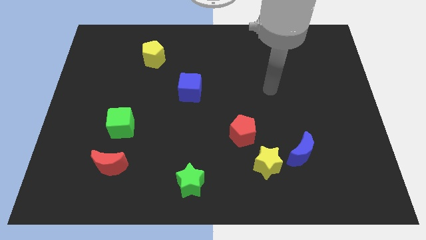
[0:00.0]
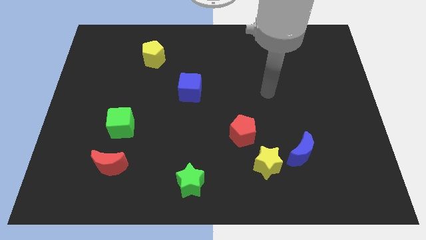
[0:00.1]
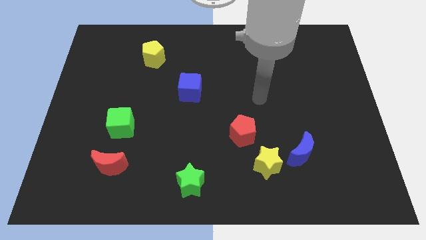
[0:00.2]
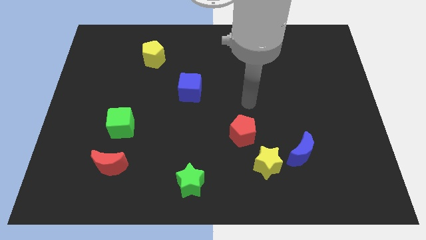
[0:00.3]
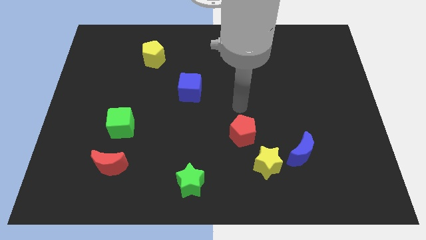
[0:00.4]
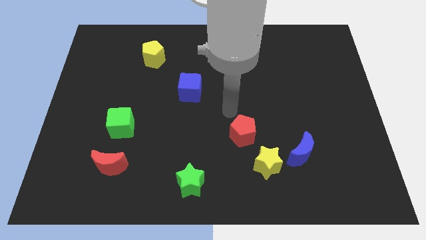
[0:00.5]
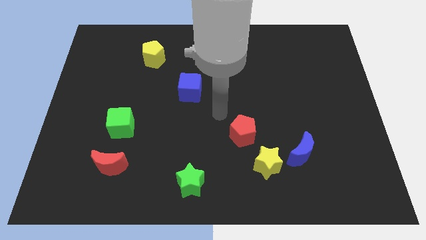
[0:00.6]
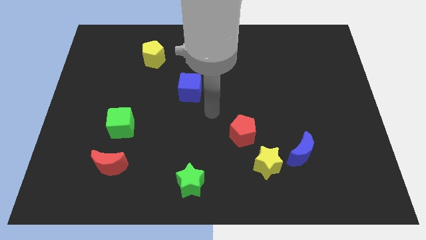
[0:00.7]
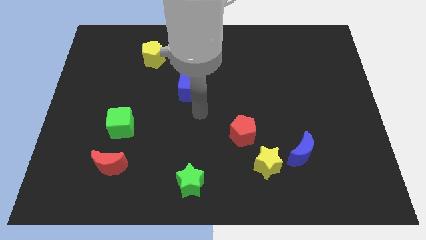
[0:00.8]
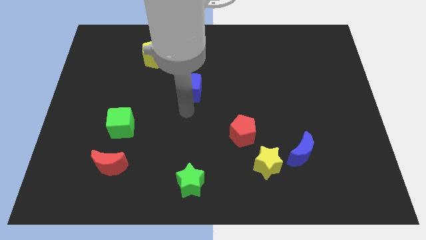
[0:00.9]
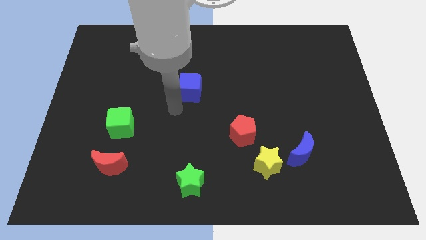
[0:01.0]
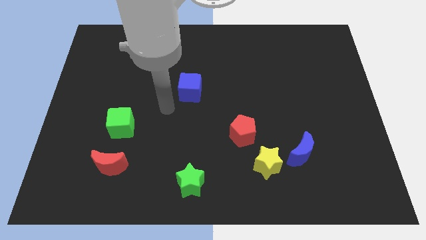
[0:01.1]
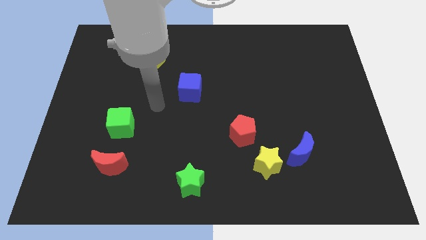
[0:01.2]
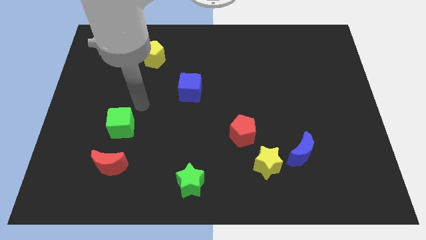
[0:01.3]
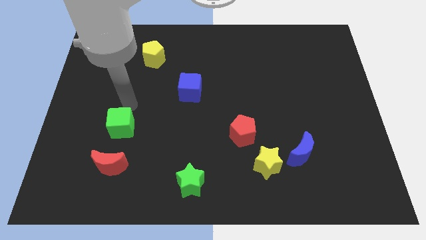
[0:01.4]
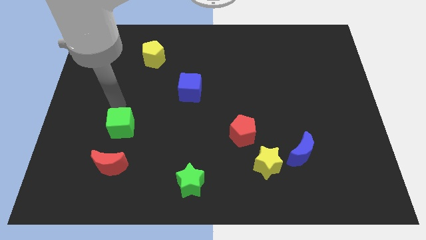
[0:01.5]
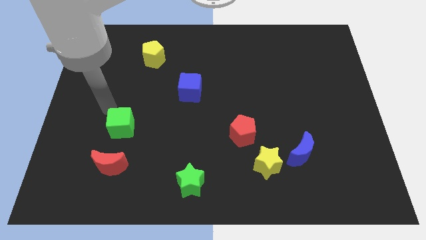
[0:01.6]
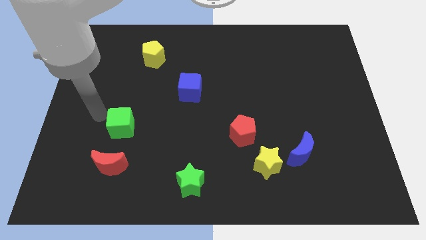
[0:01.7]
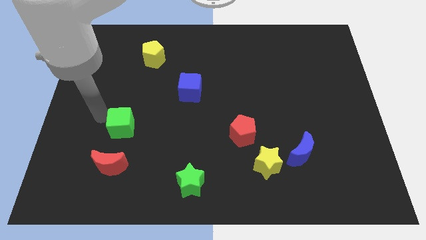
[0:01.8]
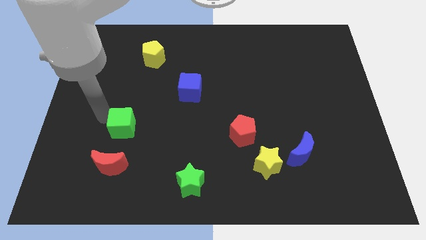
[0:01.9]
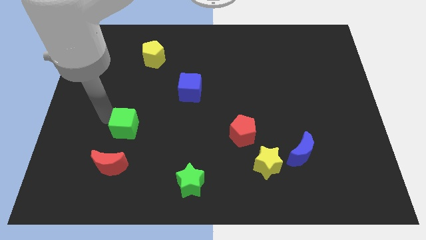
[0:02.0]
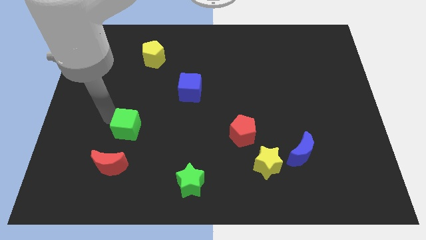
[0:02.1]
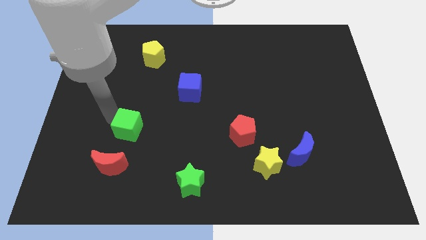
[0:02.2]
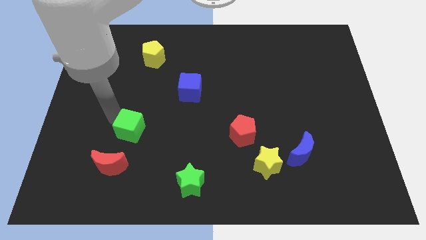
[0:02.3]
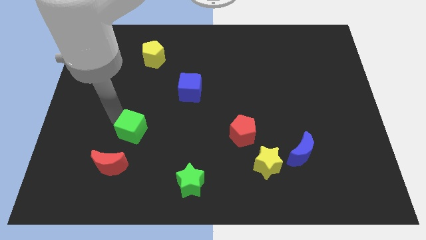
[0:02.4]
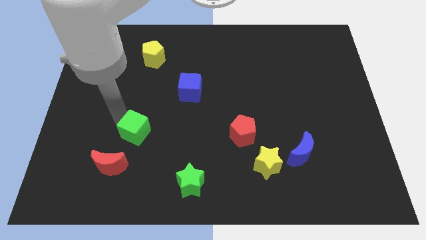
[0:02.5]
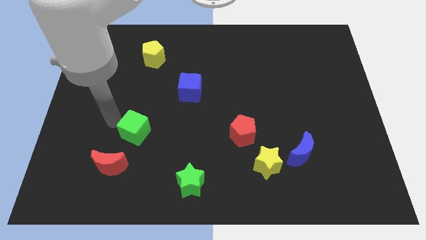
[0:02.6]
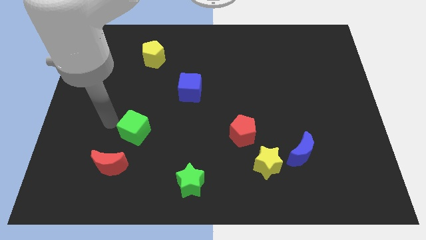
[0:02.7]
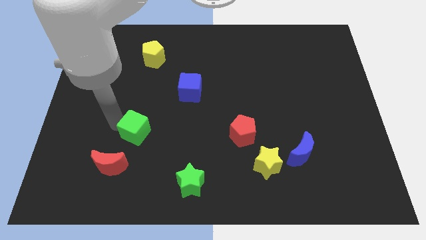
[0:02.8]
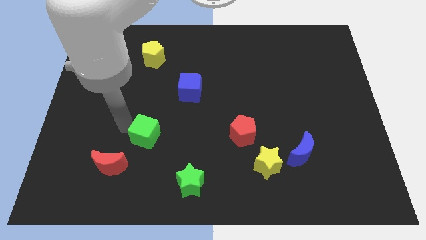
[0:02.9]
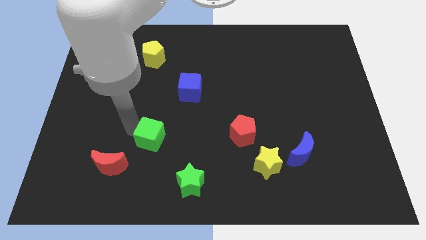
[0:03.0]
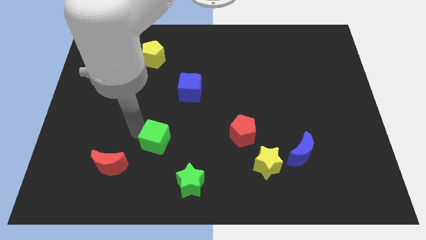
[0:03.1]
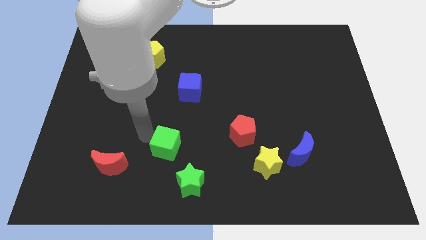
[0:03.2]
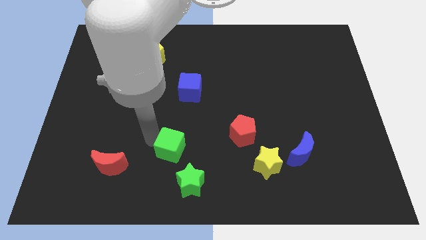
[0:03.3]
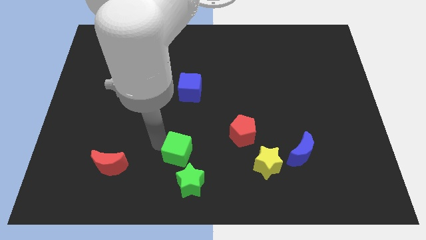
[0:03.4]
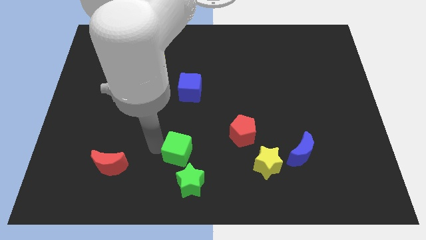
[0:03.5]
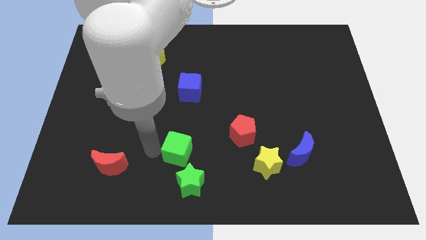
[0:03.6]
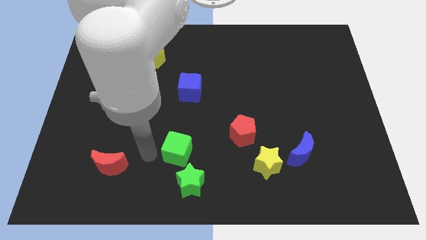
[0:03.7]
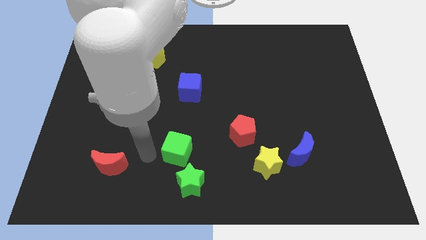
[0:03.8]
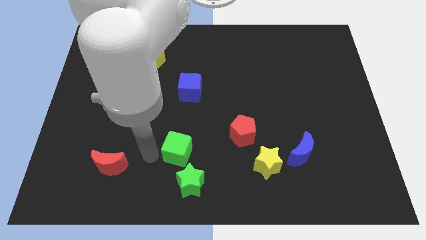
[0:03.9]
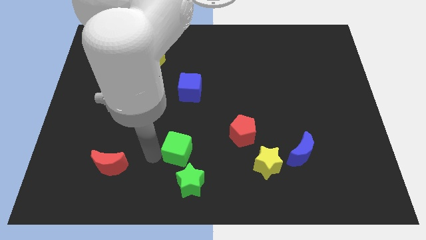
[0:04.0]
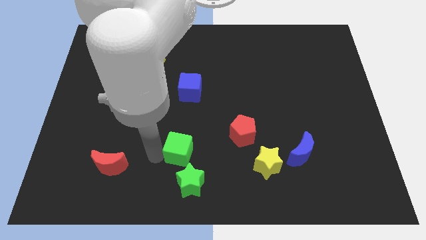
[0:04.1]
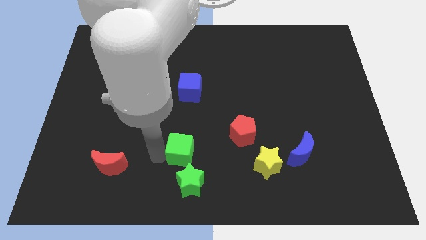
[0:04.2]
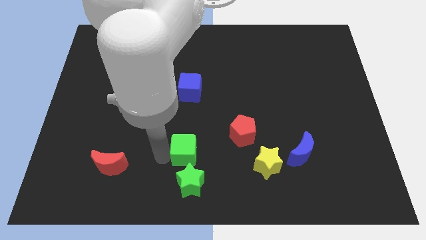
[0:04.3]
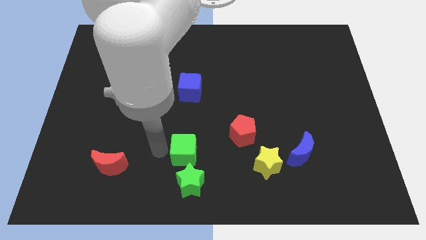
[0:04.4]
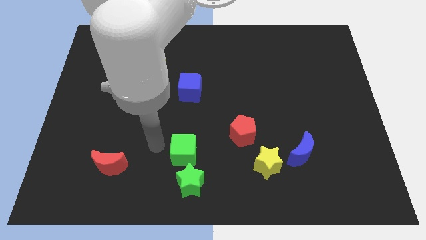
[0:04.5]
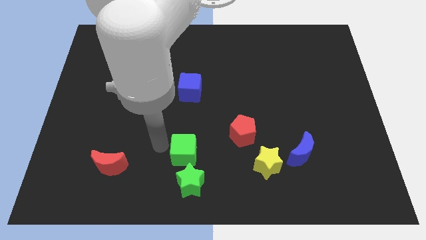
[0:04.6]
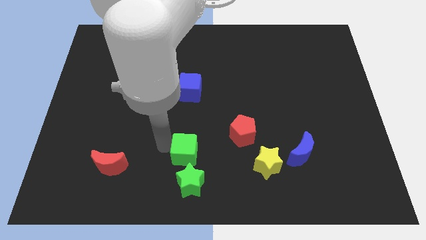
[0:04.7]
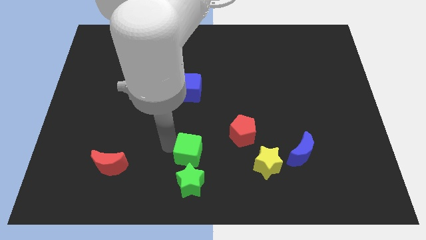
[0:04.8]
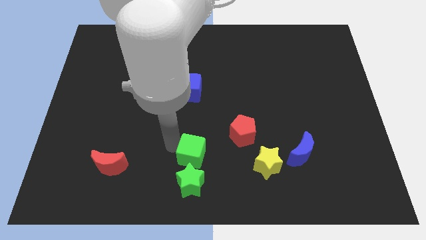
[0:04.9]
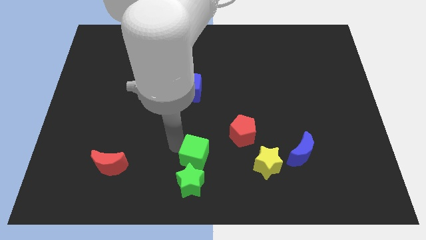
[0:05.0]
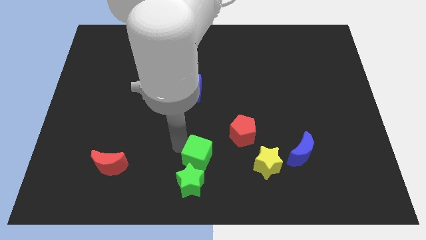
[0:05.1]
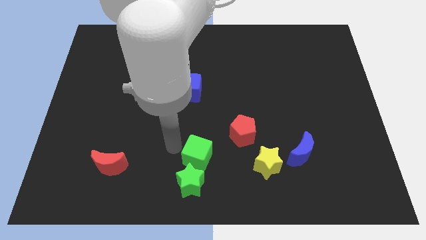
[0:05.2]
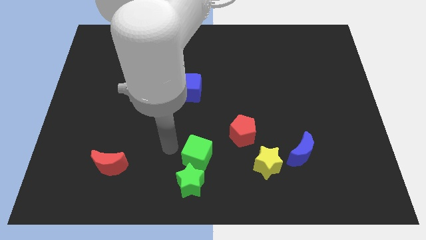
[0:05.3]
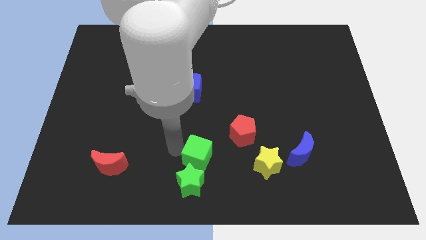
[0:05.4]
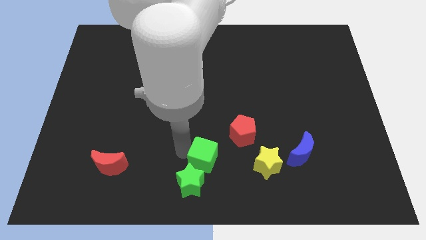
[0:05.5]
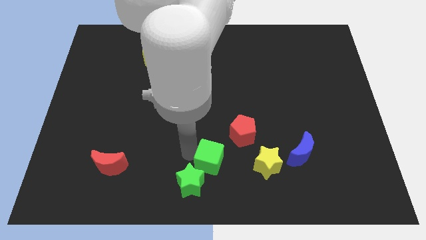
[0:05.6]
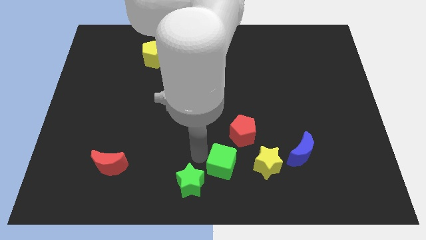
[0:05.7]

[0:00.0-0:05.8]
move the green cube to the bottom side of the red pentagon

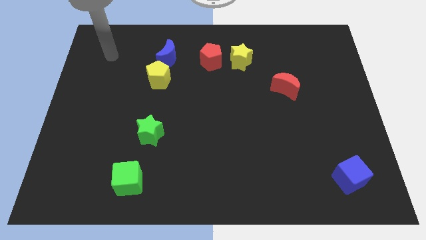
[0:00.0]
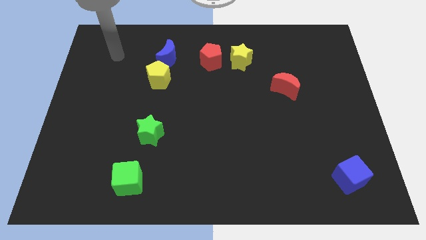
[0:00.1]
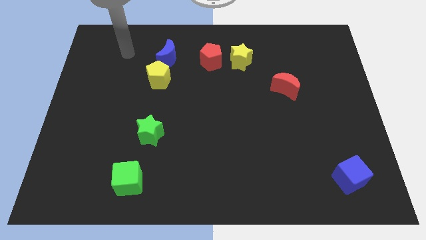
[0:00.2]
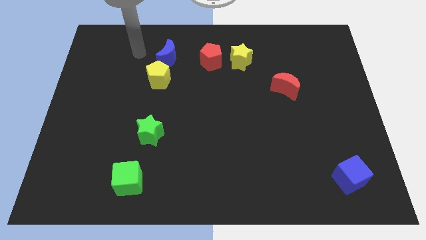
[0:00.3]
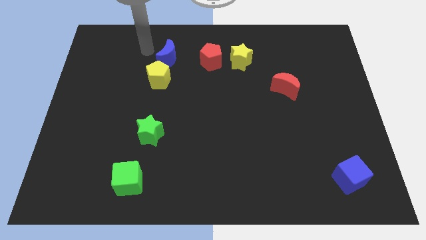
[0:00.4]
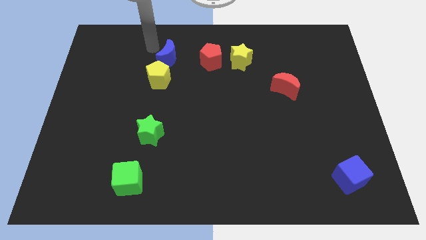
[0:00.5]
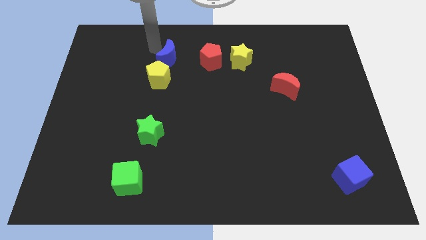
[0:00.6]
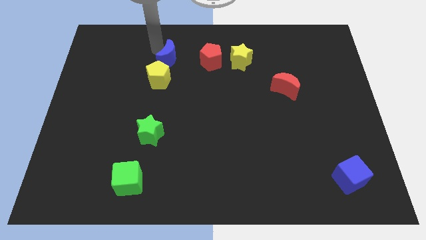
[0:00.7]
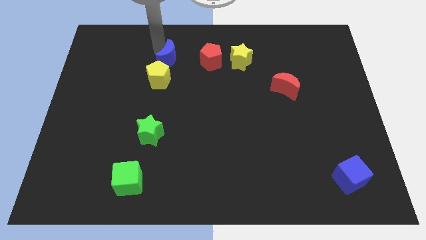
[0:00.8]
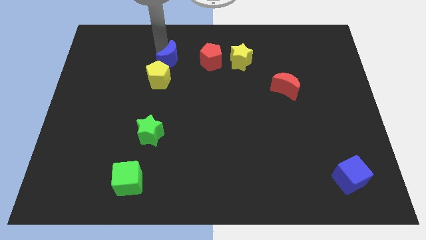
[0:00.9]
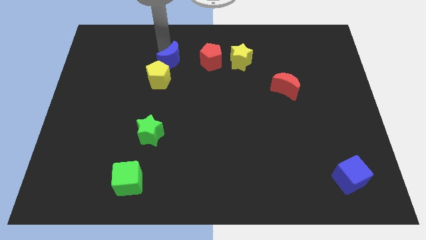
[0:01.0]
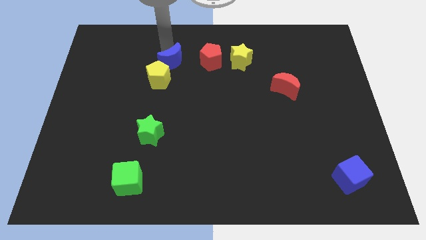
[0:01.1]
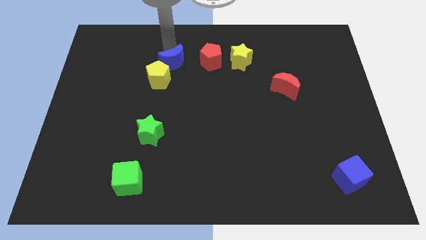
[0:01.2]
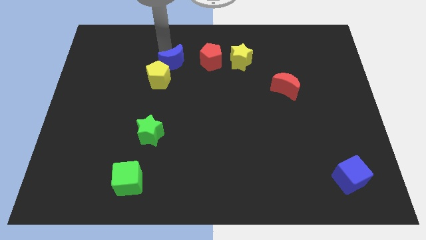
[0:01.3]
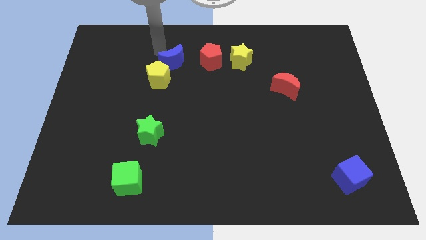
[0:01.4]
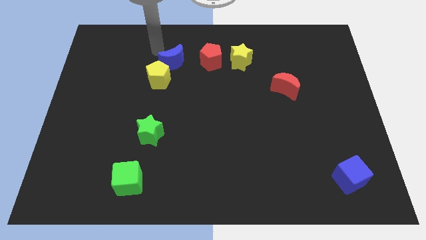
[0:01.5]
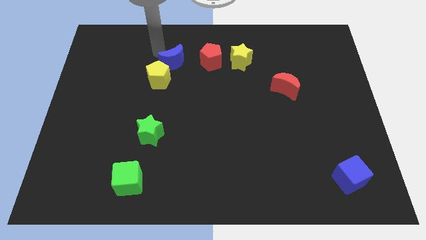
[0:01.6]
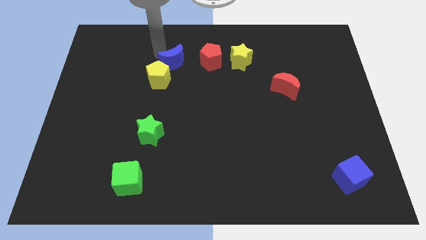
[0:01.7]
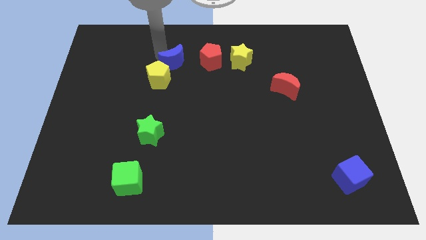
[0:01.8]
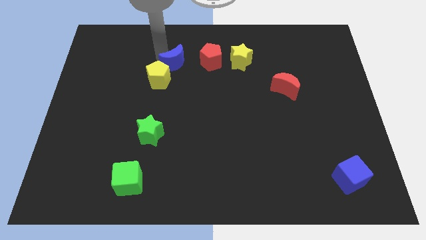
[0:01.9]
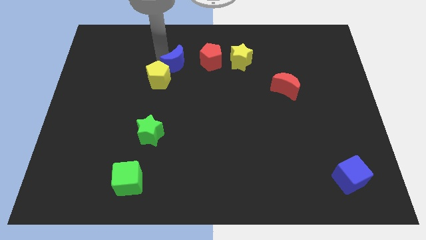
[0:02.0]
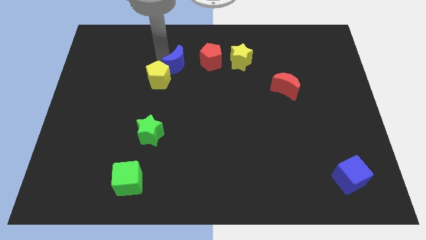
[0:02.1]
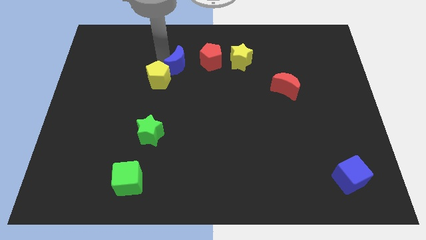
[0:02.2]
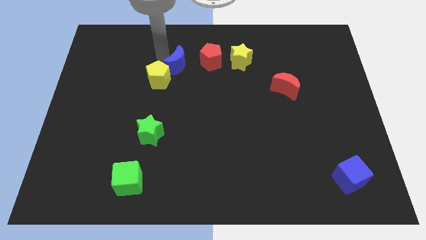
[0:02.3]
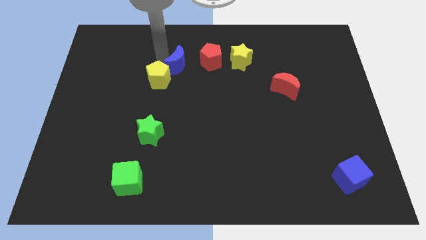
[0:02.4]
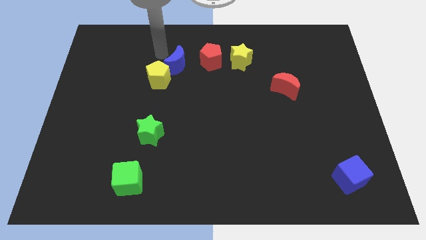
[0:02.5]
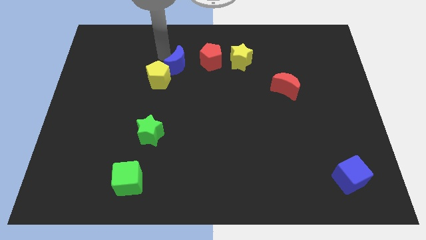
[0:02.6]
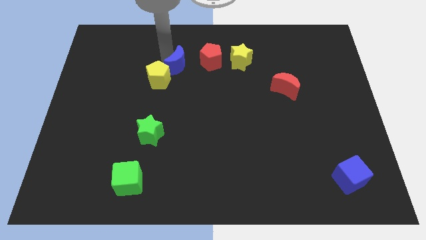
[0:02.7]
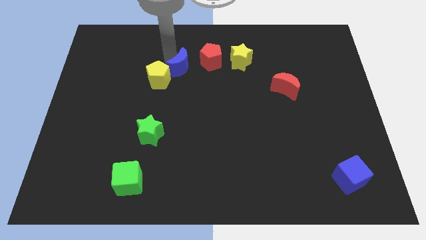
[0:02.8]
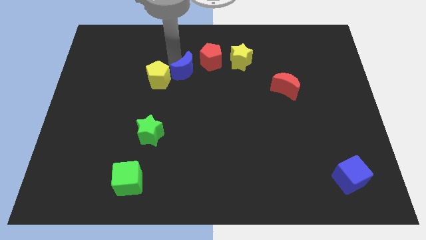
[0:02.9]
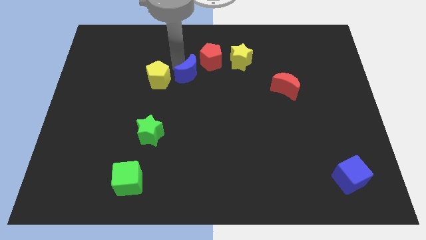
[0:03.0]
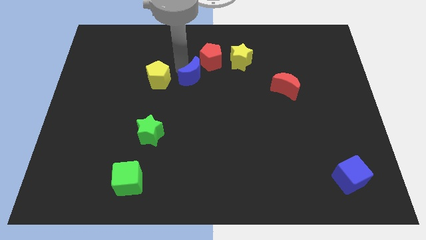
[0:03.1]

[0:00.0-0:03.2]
move the blue moon below the red pentagon
